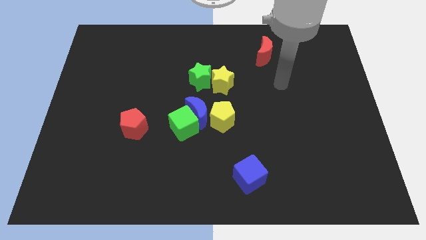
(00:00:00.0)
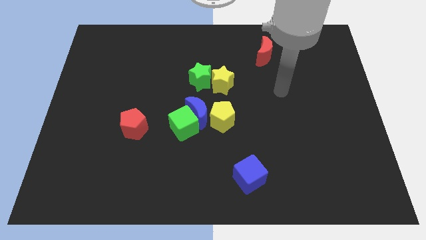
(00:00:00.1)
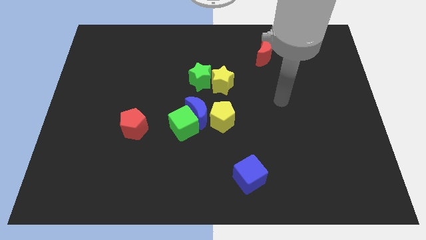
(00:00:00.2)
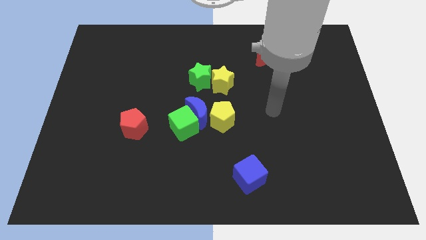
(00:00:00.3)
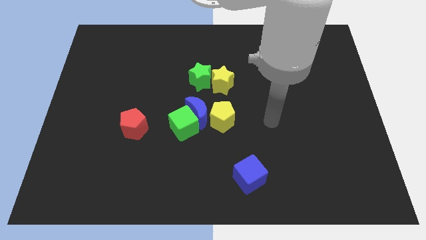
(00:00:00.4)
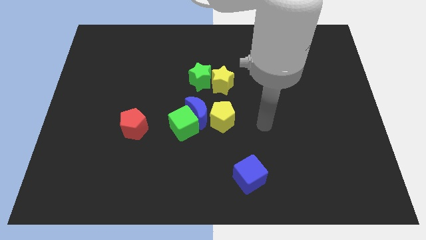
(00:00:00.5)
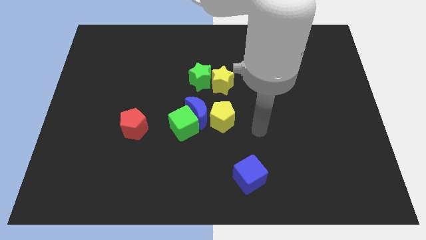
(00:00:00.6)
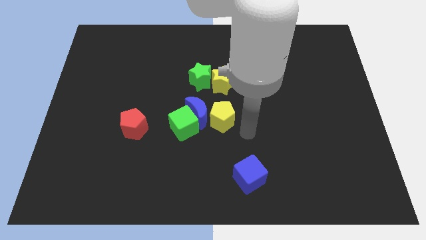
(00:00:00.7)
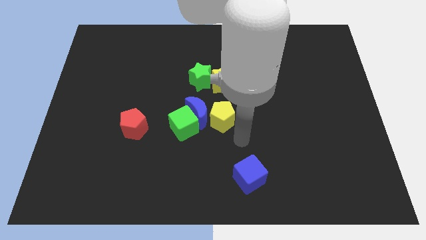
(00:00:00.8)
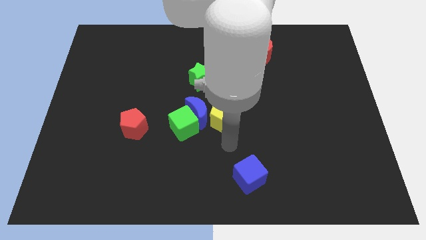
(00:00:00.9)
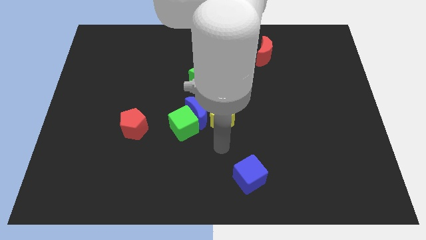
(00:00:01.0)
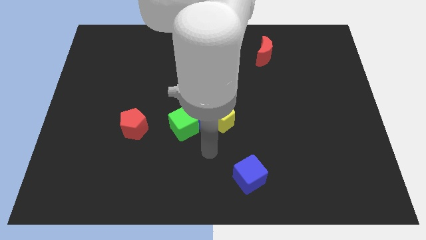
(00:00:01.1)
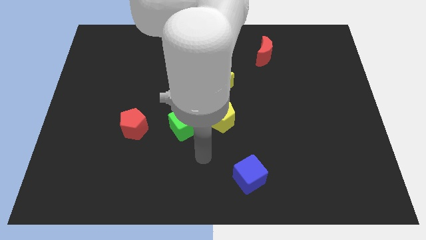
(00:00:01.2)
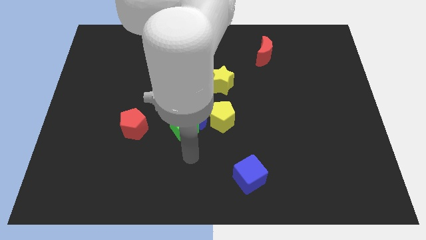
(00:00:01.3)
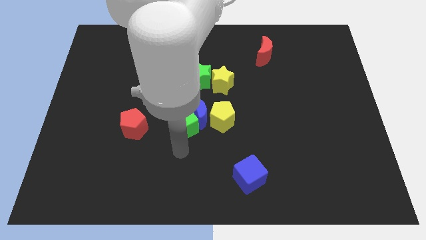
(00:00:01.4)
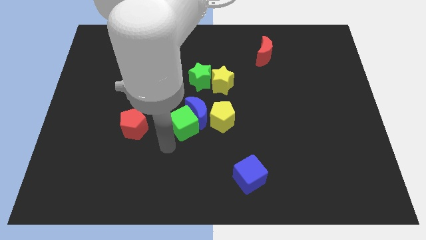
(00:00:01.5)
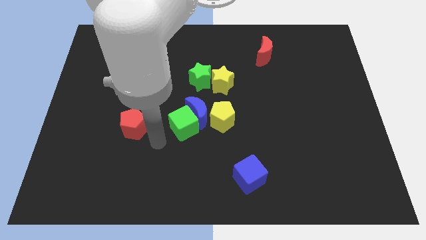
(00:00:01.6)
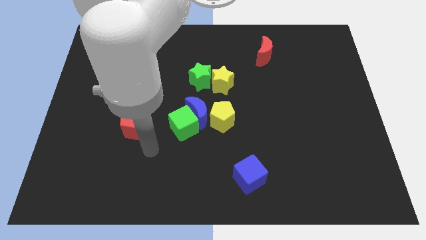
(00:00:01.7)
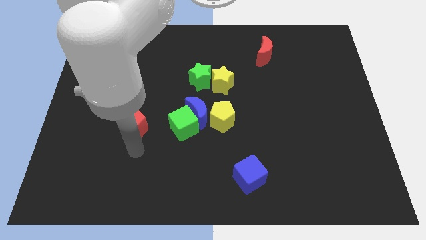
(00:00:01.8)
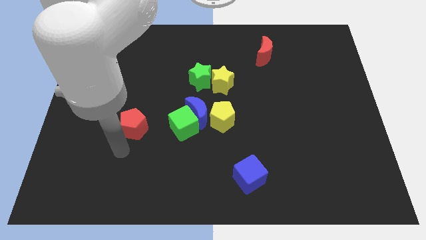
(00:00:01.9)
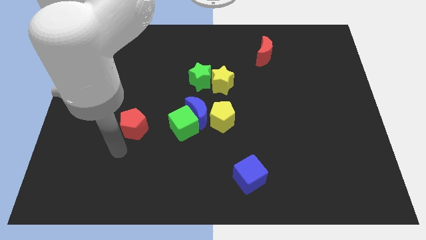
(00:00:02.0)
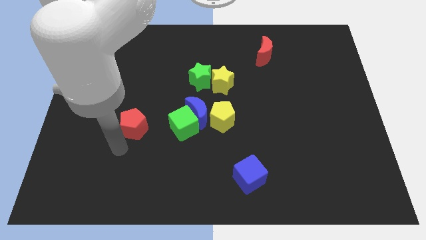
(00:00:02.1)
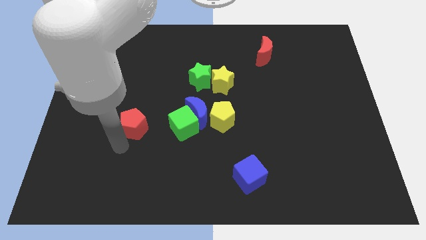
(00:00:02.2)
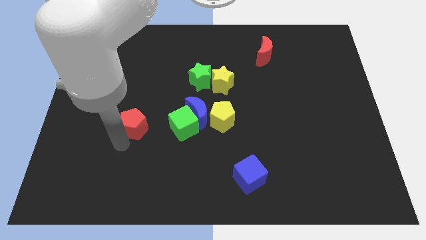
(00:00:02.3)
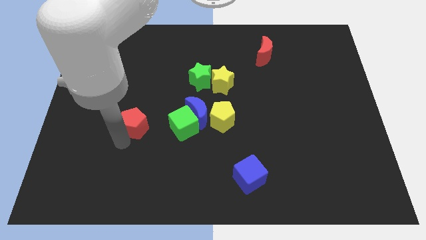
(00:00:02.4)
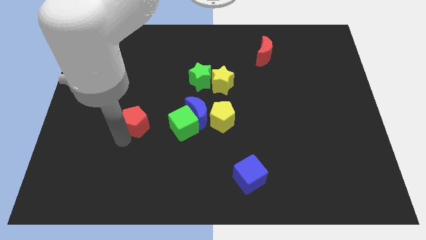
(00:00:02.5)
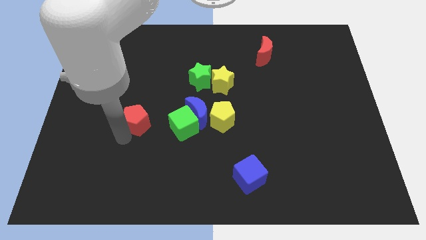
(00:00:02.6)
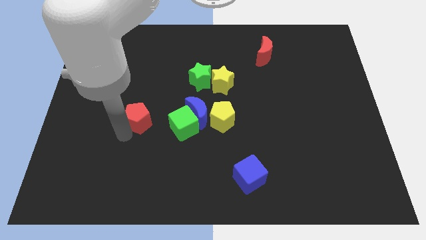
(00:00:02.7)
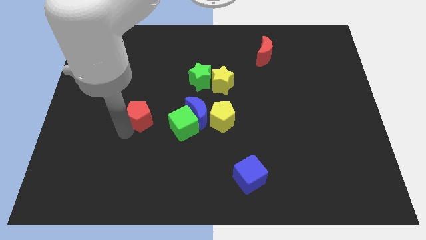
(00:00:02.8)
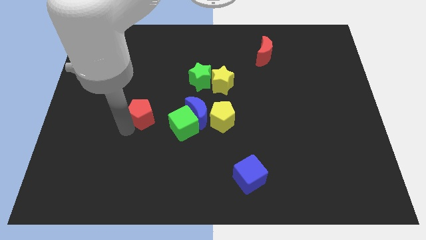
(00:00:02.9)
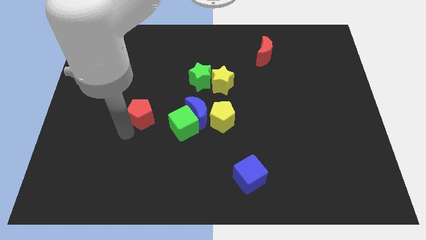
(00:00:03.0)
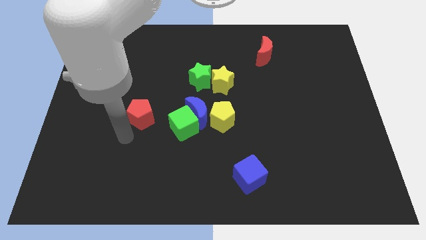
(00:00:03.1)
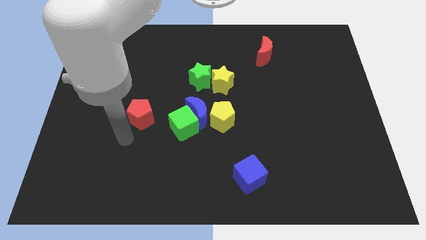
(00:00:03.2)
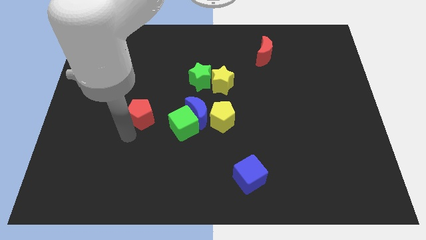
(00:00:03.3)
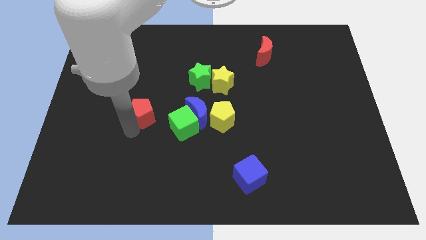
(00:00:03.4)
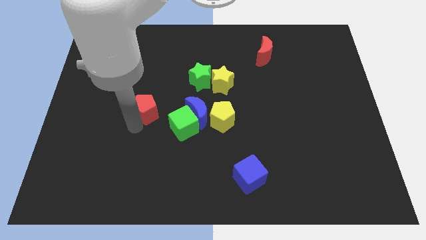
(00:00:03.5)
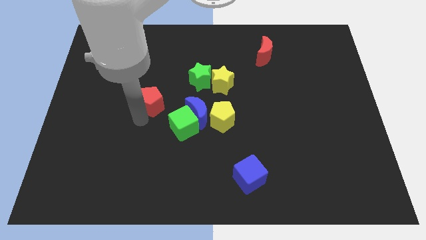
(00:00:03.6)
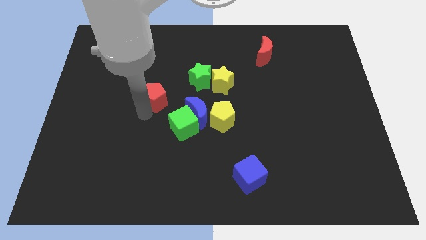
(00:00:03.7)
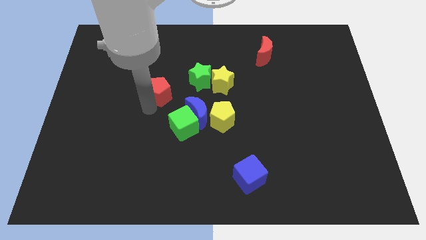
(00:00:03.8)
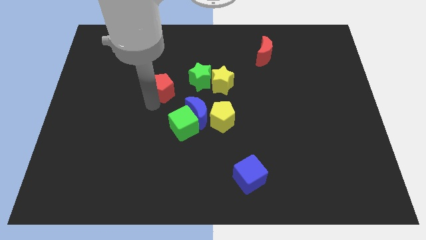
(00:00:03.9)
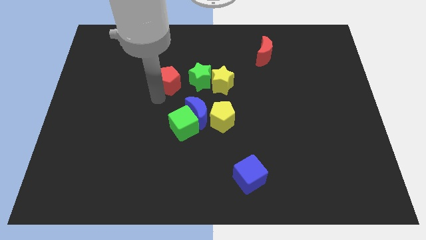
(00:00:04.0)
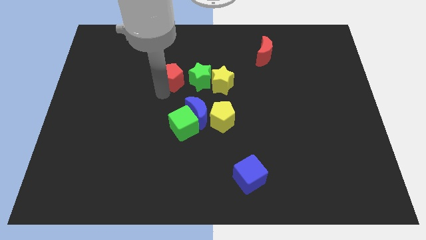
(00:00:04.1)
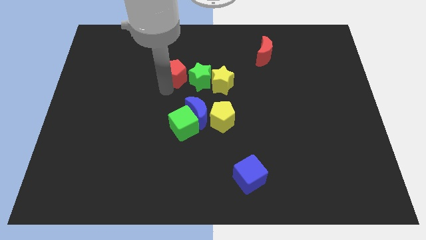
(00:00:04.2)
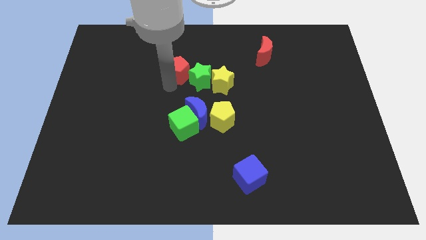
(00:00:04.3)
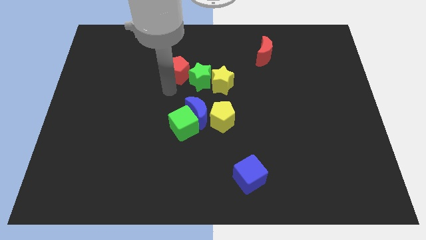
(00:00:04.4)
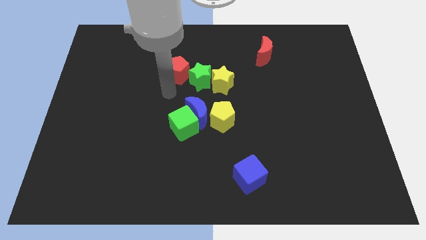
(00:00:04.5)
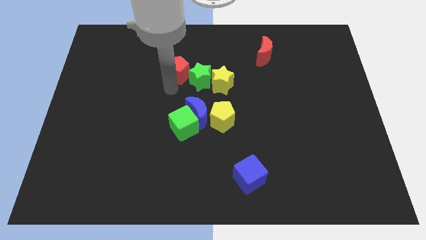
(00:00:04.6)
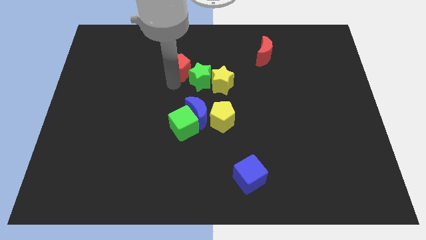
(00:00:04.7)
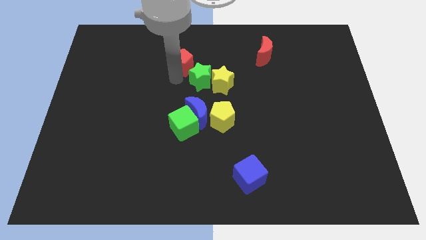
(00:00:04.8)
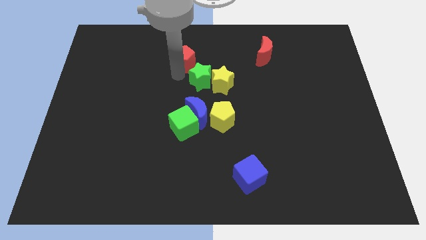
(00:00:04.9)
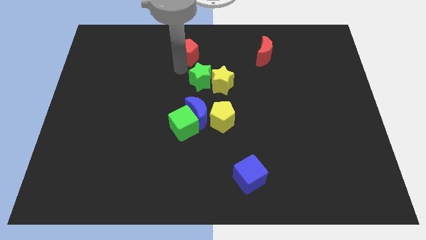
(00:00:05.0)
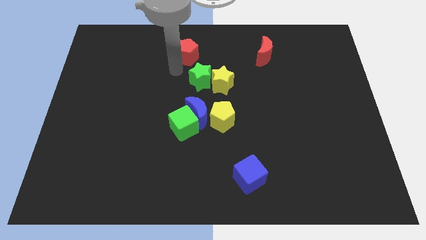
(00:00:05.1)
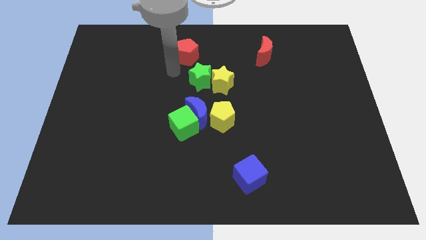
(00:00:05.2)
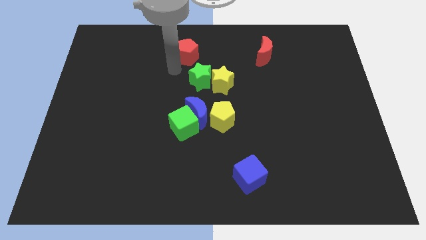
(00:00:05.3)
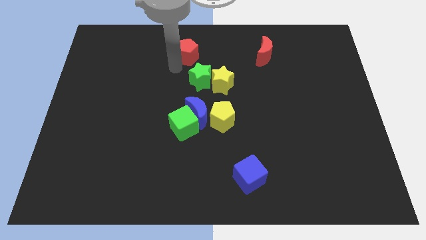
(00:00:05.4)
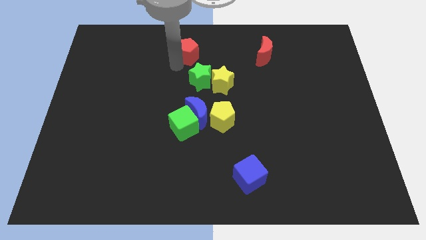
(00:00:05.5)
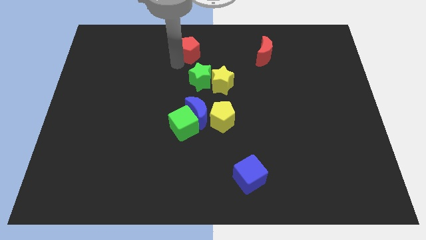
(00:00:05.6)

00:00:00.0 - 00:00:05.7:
push the red pentagon to the towards your base

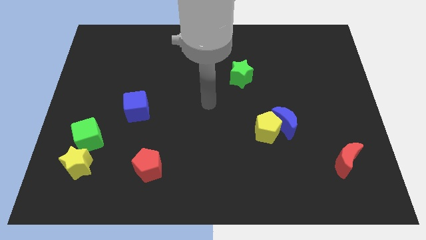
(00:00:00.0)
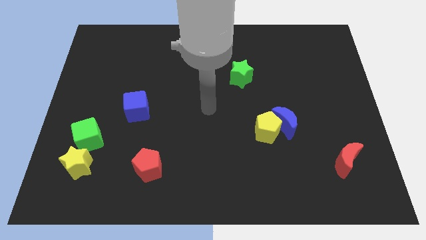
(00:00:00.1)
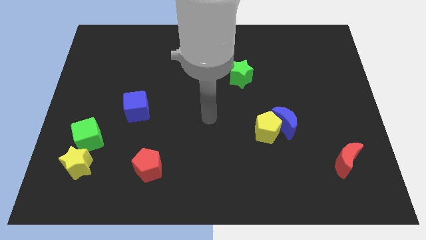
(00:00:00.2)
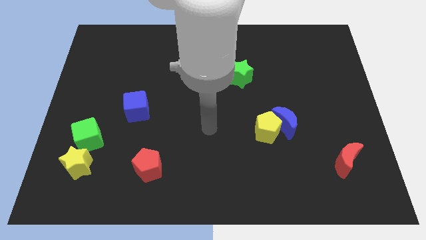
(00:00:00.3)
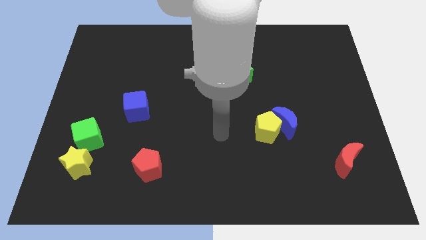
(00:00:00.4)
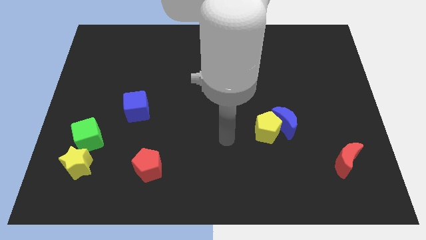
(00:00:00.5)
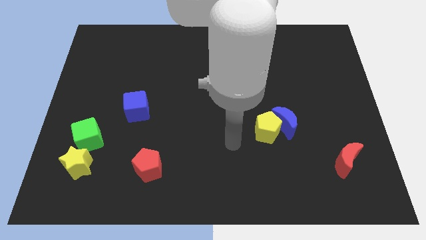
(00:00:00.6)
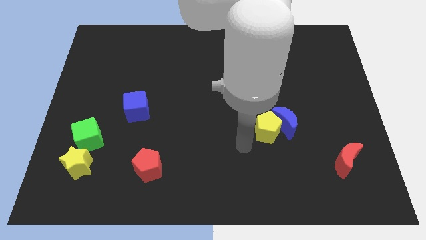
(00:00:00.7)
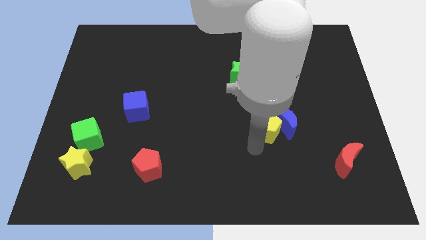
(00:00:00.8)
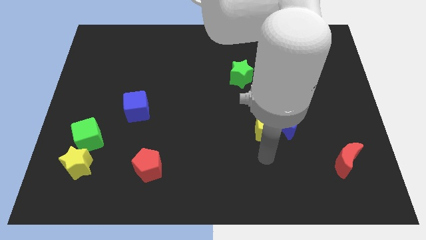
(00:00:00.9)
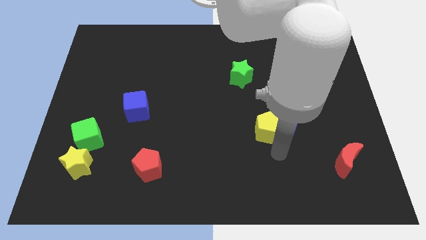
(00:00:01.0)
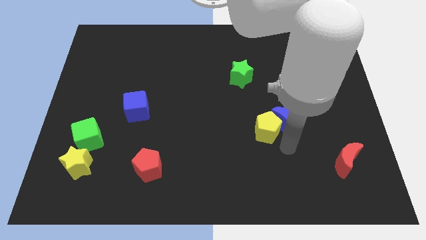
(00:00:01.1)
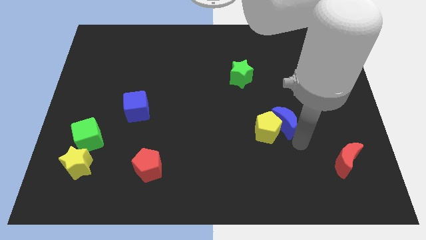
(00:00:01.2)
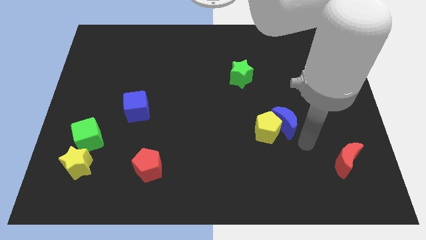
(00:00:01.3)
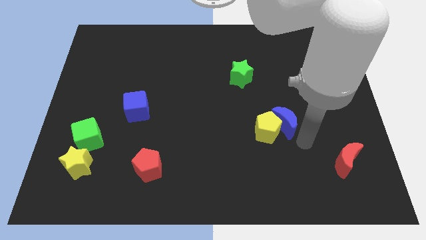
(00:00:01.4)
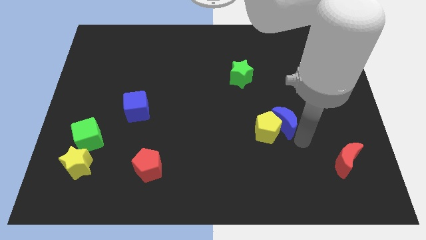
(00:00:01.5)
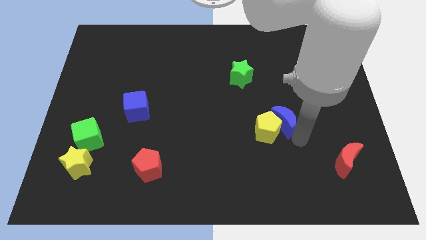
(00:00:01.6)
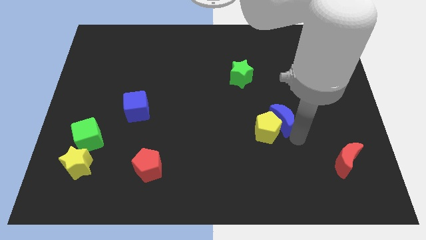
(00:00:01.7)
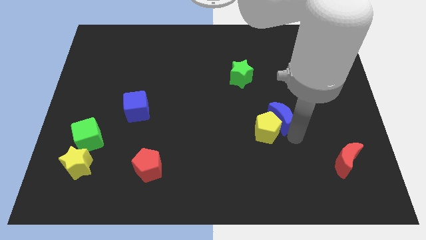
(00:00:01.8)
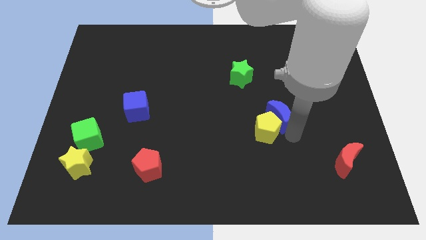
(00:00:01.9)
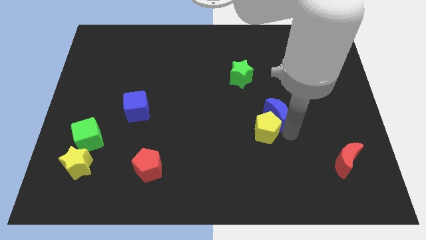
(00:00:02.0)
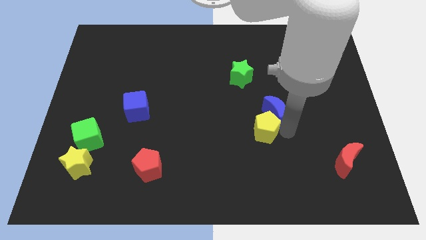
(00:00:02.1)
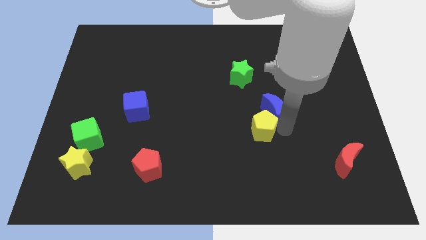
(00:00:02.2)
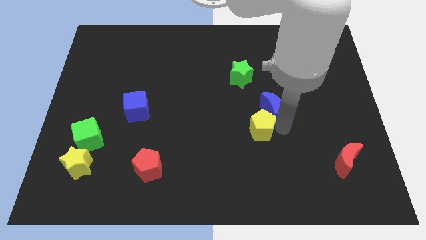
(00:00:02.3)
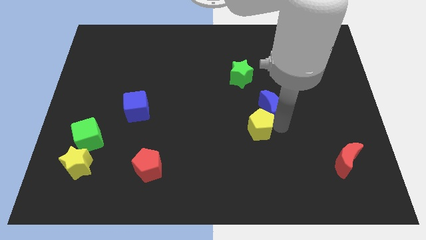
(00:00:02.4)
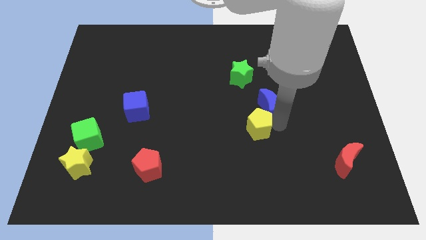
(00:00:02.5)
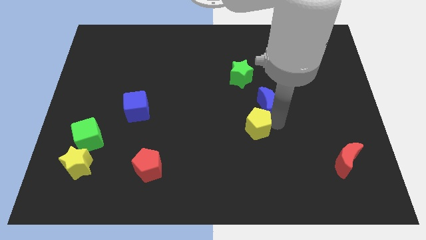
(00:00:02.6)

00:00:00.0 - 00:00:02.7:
slide the blue moon to the middle of the board
